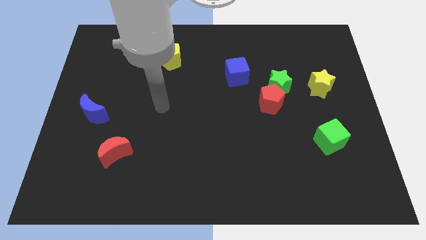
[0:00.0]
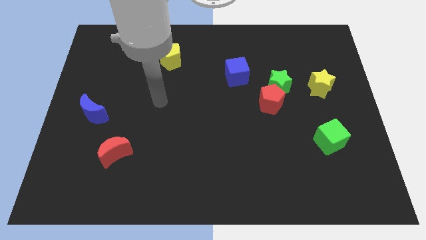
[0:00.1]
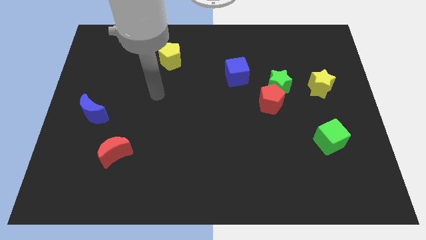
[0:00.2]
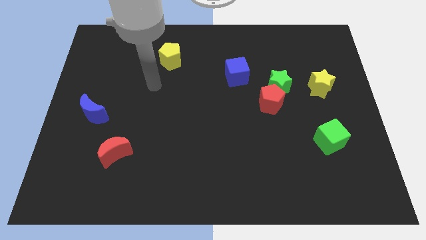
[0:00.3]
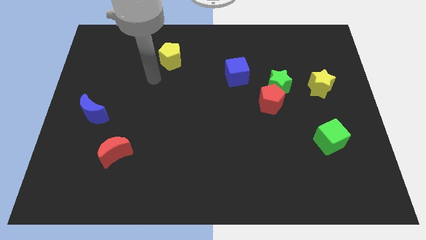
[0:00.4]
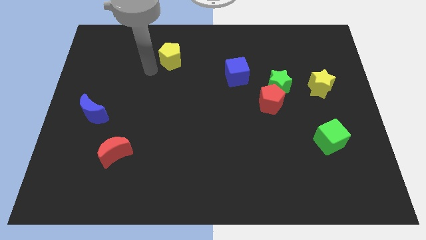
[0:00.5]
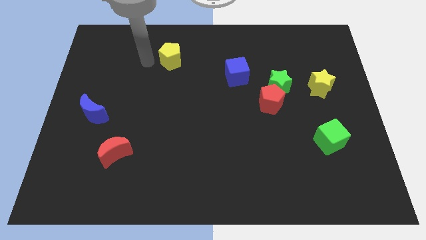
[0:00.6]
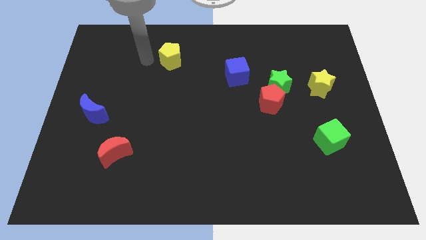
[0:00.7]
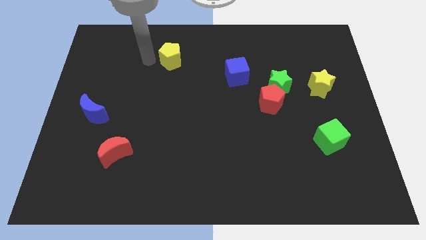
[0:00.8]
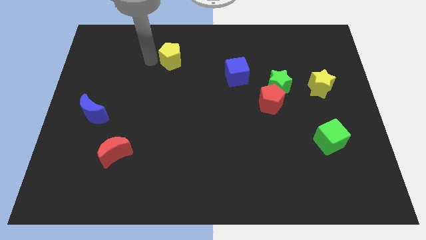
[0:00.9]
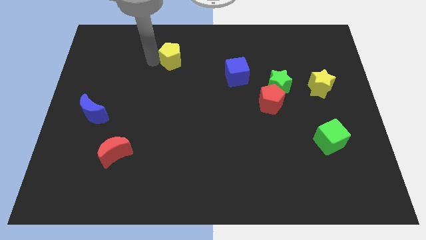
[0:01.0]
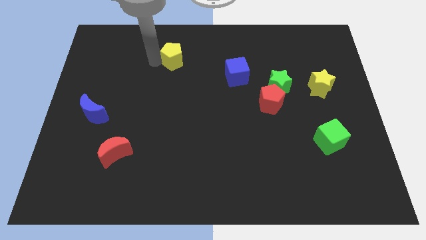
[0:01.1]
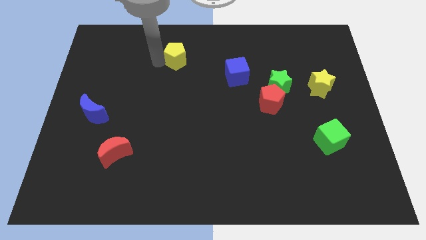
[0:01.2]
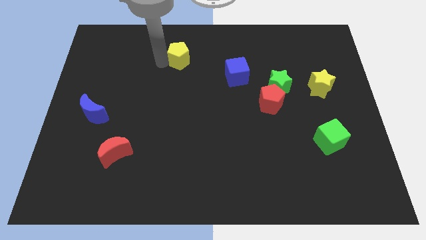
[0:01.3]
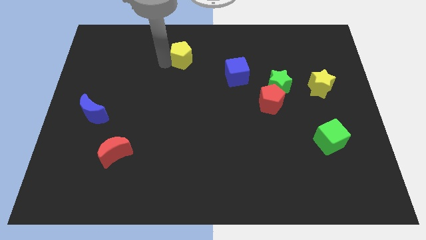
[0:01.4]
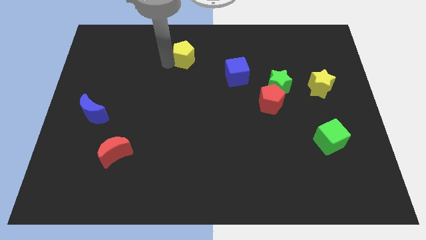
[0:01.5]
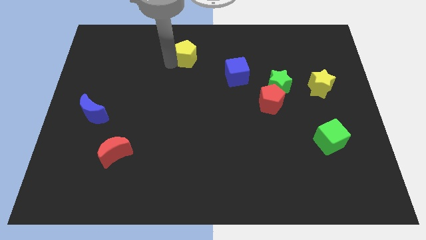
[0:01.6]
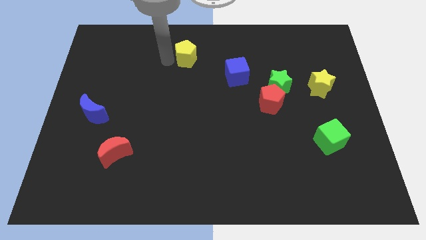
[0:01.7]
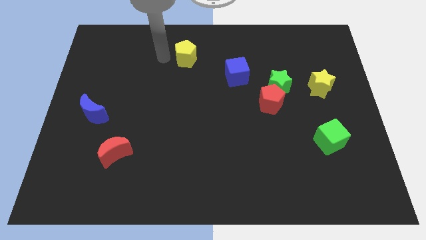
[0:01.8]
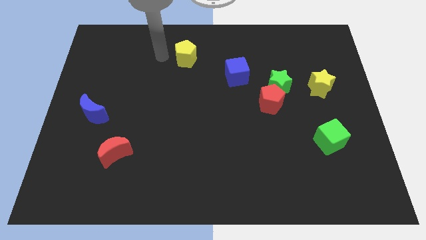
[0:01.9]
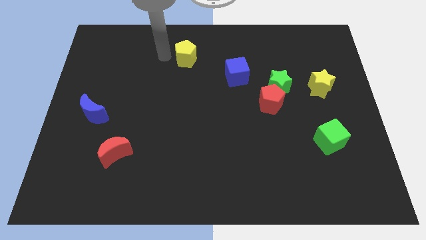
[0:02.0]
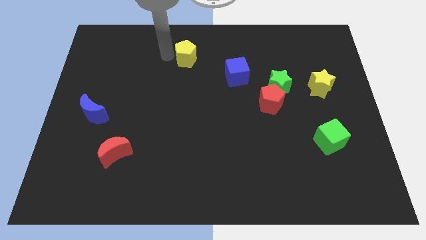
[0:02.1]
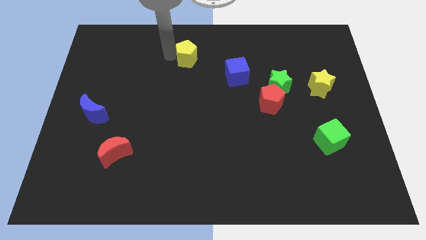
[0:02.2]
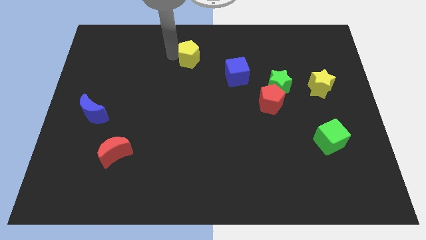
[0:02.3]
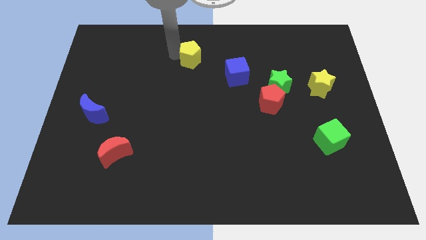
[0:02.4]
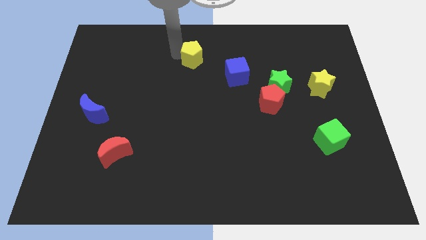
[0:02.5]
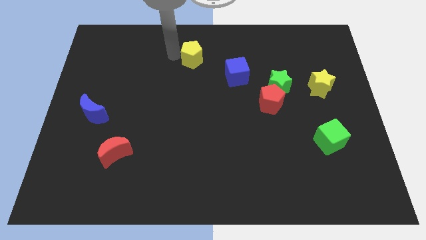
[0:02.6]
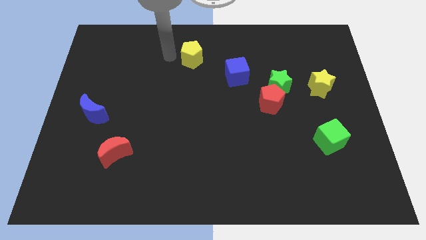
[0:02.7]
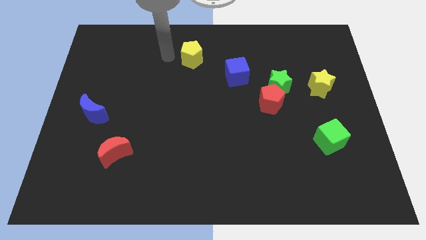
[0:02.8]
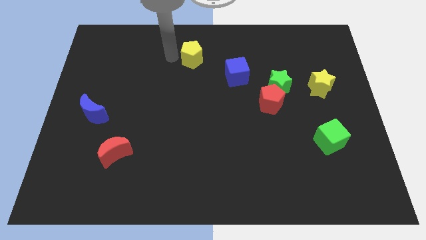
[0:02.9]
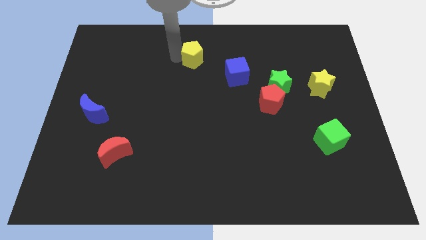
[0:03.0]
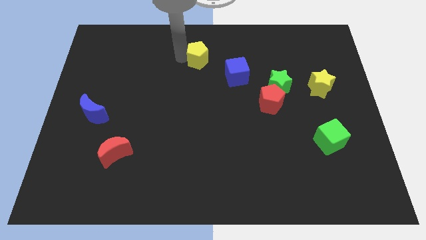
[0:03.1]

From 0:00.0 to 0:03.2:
slightly push the yellow pentagon to the right

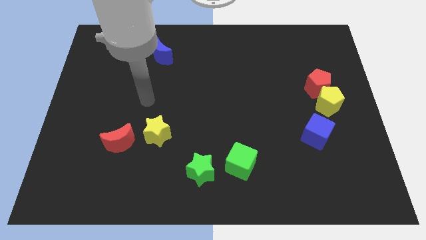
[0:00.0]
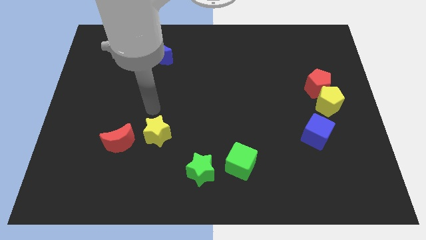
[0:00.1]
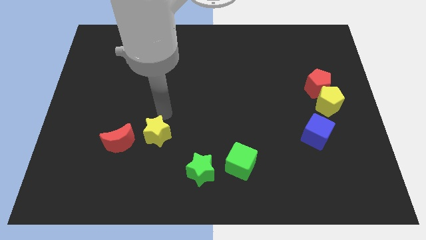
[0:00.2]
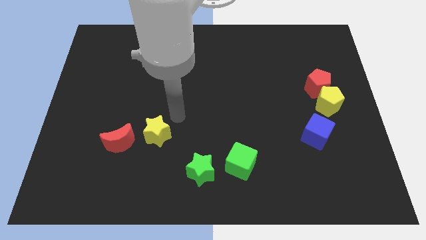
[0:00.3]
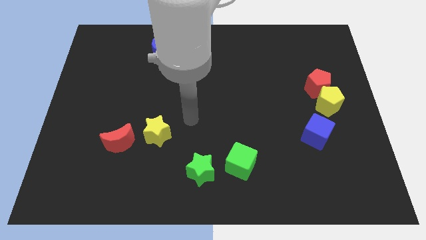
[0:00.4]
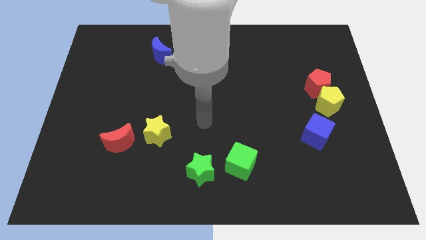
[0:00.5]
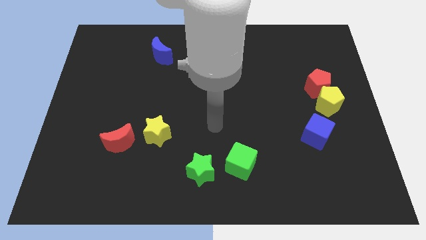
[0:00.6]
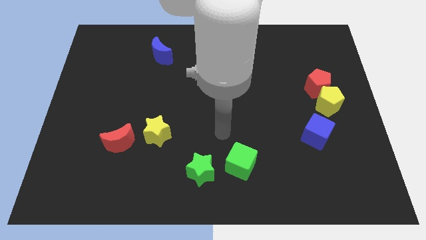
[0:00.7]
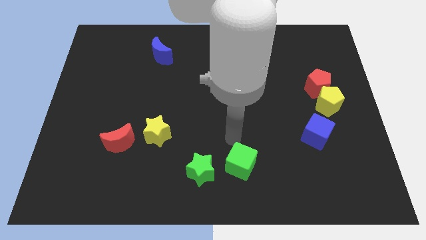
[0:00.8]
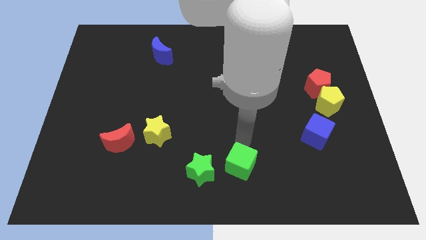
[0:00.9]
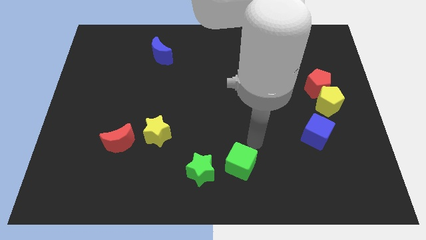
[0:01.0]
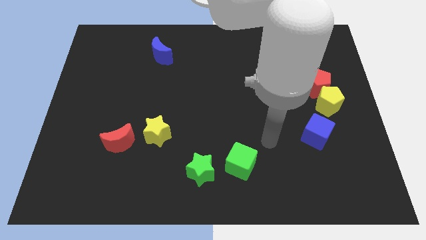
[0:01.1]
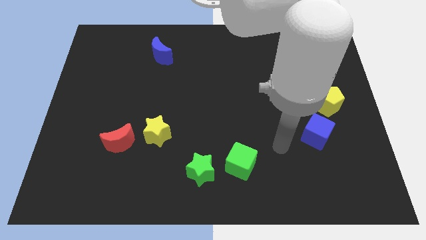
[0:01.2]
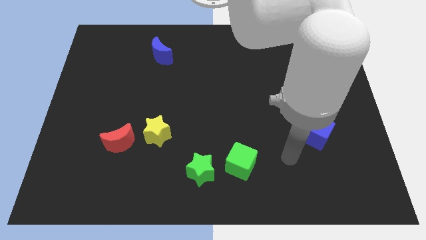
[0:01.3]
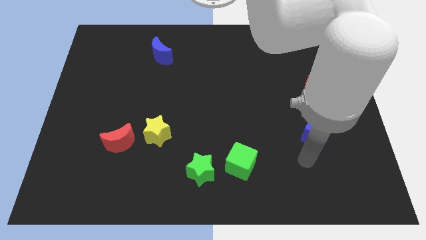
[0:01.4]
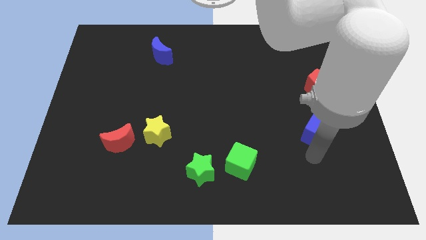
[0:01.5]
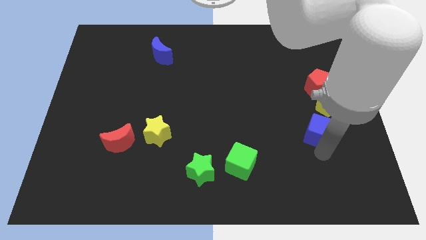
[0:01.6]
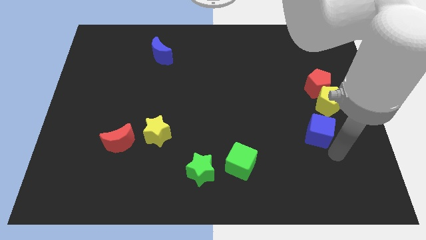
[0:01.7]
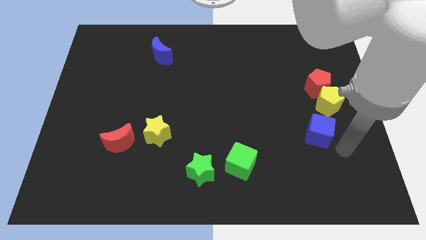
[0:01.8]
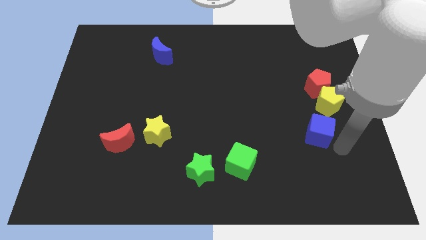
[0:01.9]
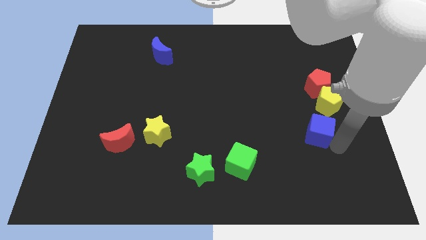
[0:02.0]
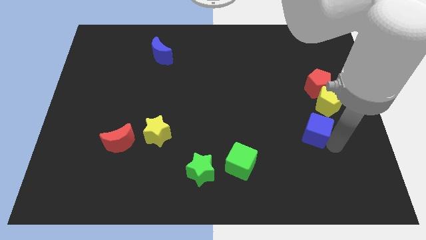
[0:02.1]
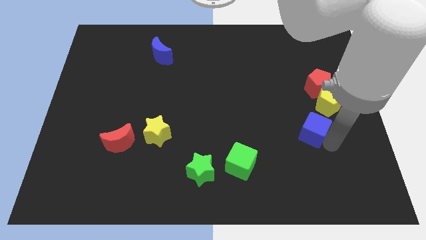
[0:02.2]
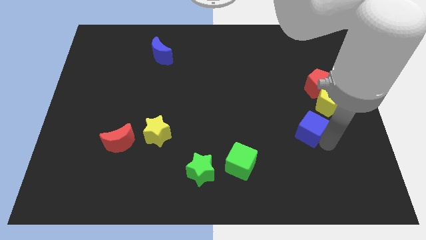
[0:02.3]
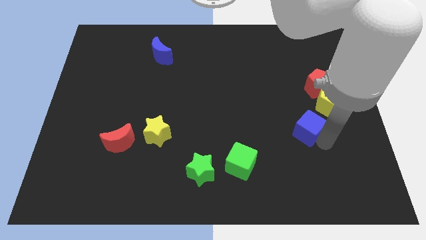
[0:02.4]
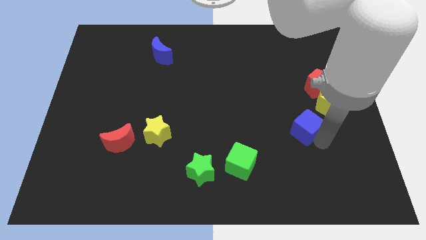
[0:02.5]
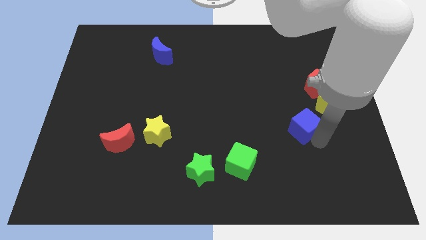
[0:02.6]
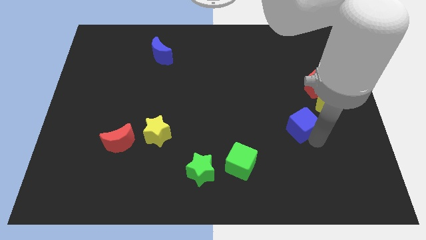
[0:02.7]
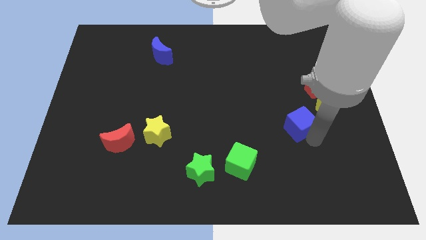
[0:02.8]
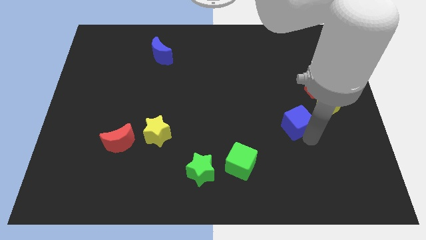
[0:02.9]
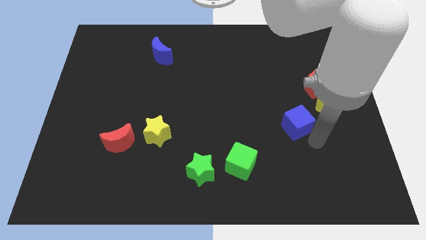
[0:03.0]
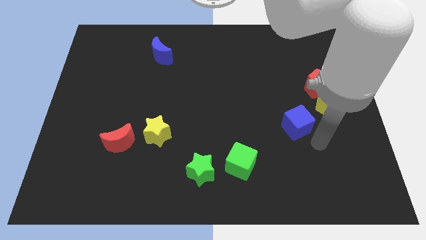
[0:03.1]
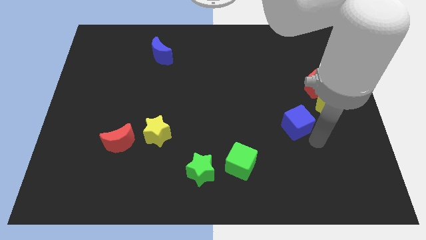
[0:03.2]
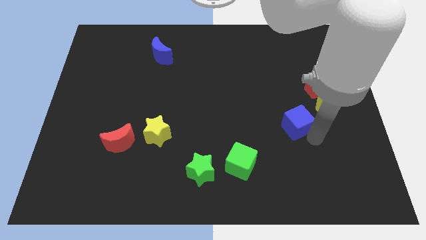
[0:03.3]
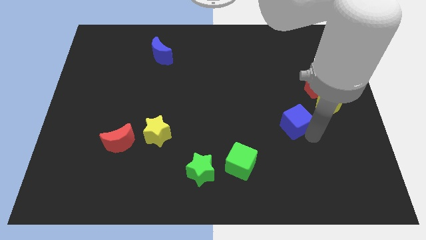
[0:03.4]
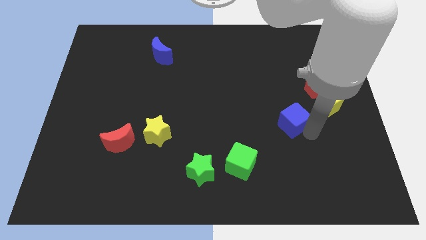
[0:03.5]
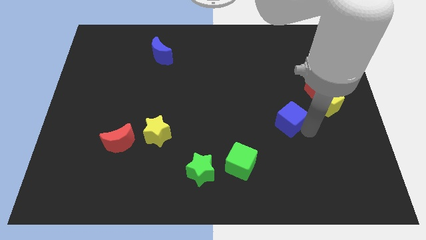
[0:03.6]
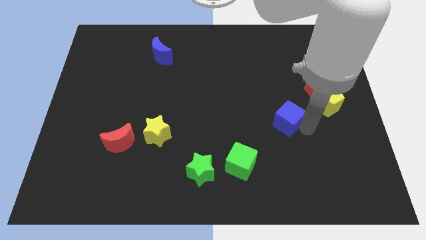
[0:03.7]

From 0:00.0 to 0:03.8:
push the blue cube slightly upwards and then to the left

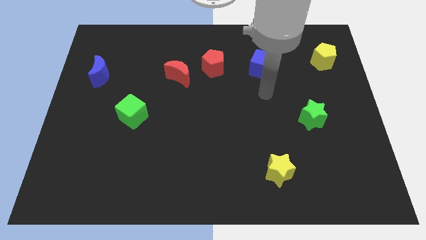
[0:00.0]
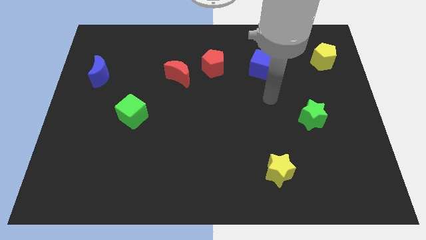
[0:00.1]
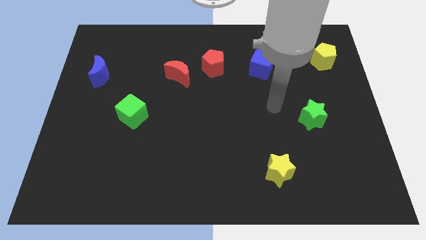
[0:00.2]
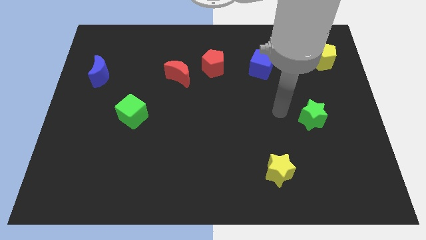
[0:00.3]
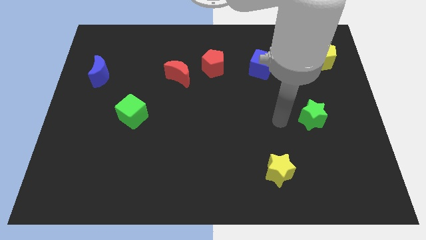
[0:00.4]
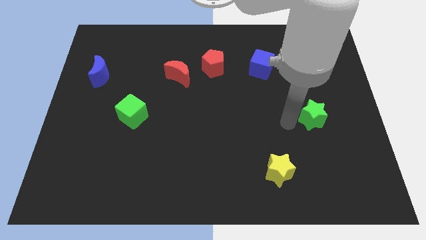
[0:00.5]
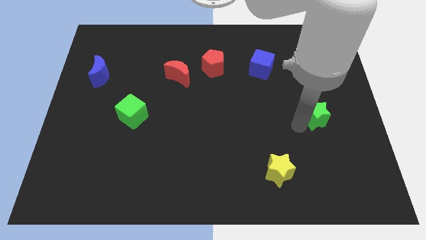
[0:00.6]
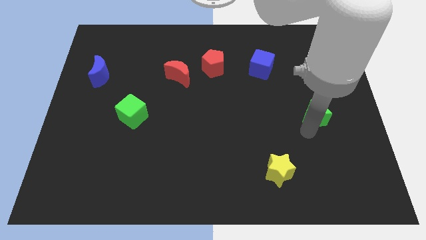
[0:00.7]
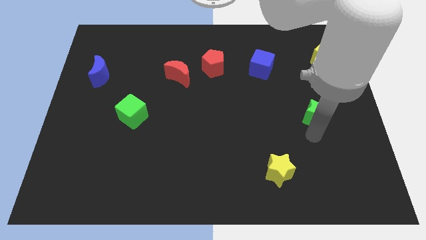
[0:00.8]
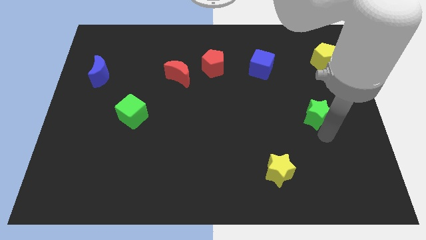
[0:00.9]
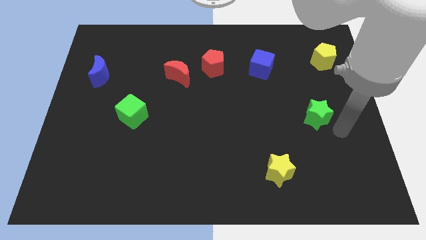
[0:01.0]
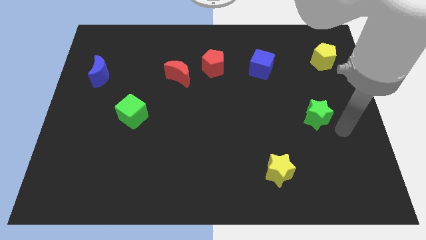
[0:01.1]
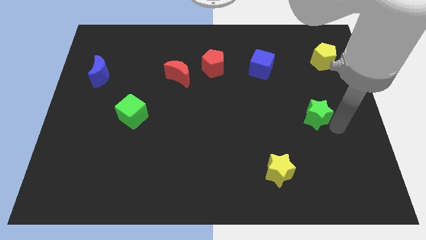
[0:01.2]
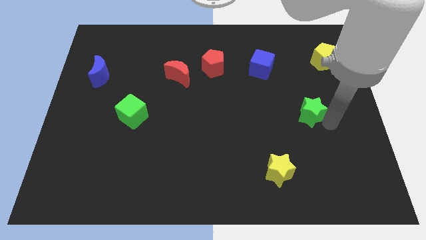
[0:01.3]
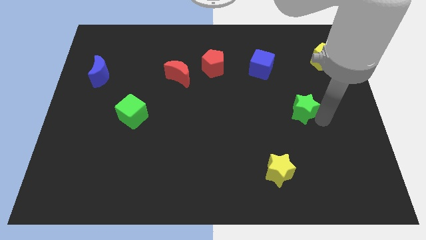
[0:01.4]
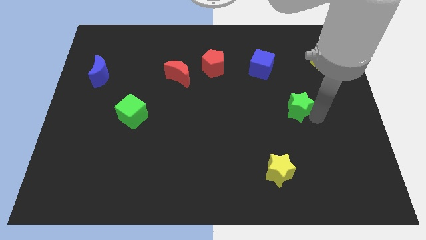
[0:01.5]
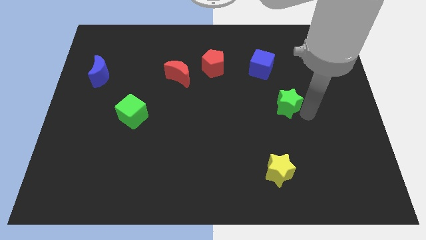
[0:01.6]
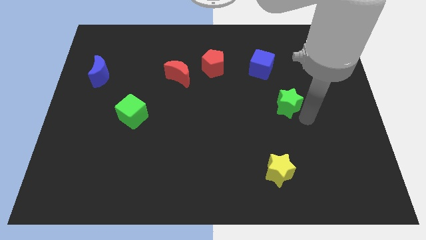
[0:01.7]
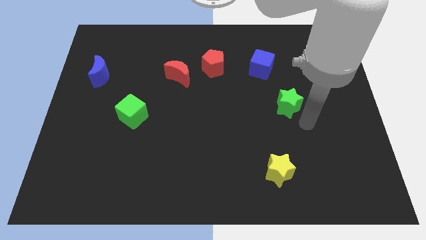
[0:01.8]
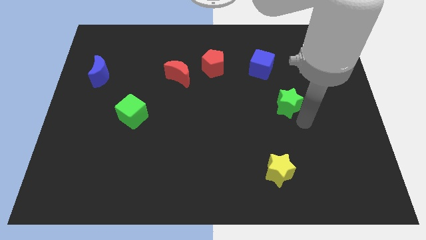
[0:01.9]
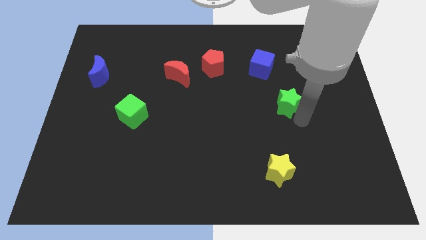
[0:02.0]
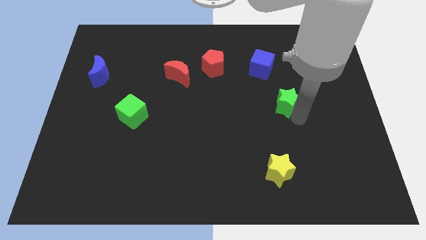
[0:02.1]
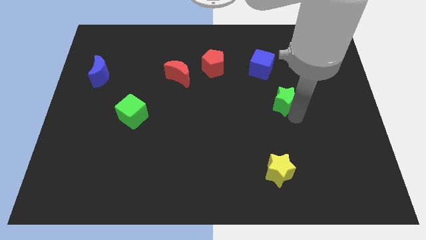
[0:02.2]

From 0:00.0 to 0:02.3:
push the green star a little bit diagonally upwards and left
